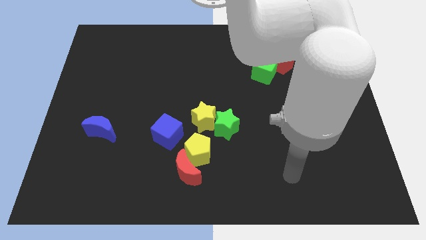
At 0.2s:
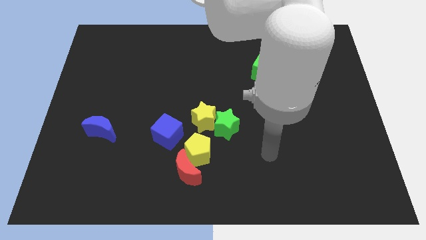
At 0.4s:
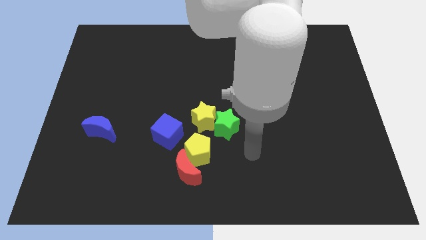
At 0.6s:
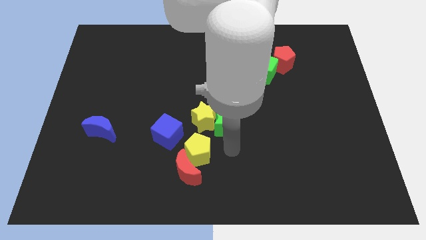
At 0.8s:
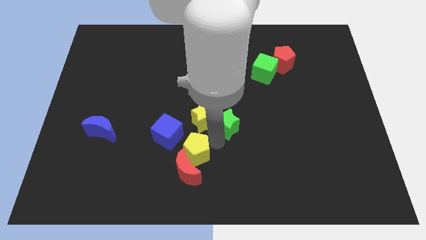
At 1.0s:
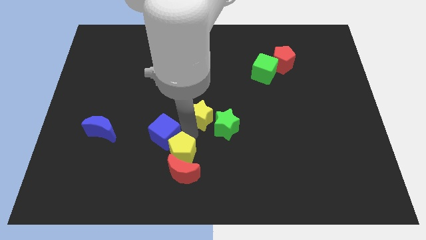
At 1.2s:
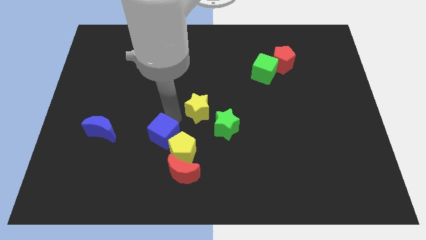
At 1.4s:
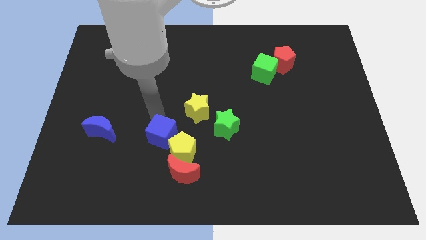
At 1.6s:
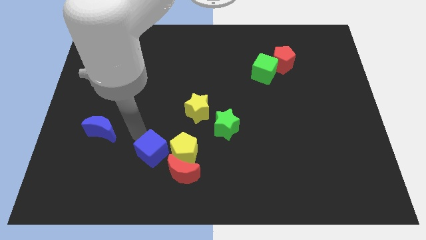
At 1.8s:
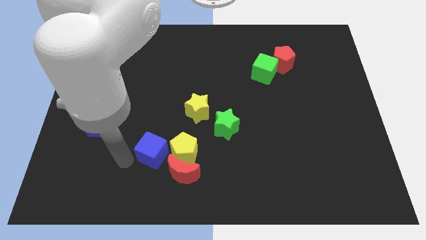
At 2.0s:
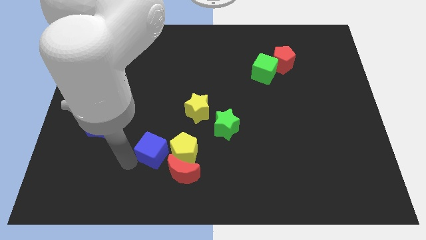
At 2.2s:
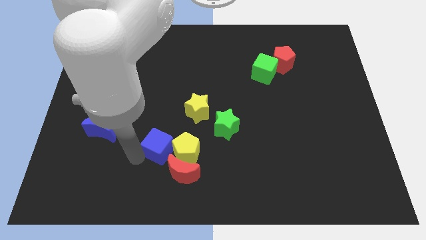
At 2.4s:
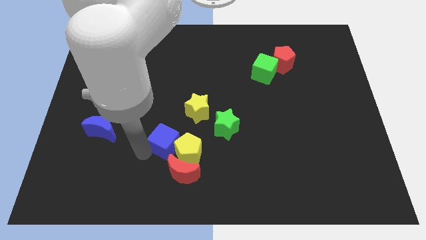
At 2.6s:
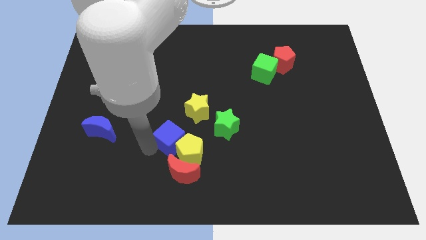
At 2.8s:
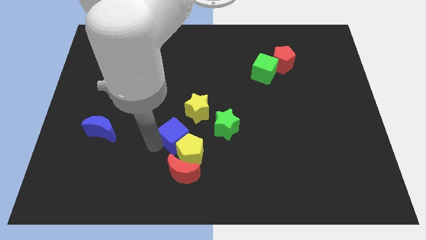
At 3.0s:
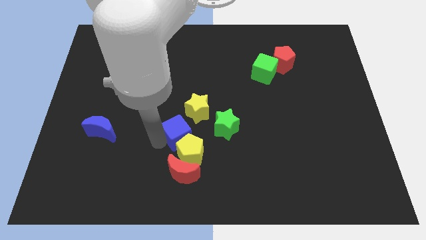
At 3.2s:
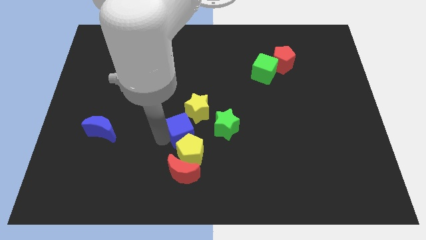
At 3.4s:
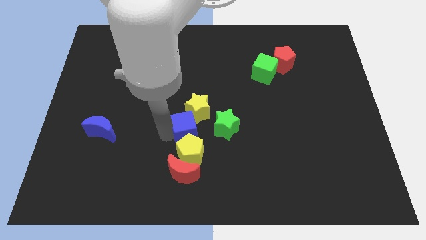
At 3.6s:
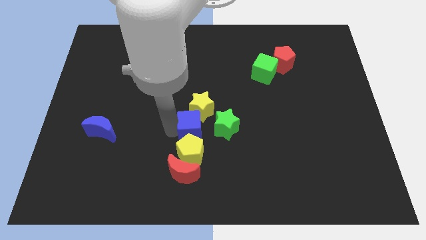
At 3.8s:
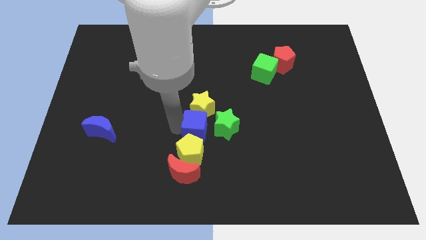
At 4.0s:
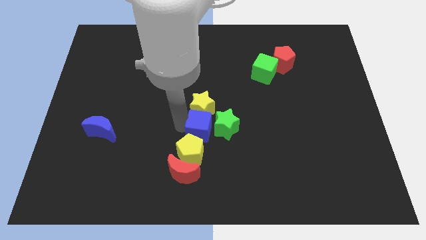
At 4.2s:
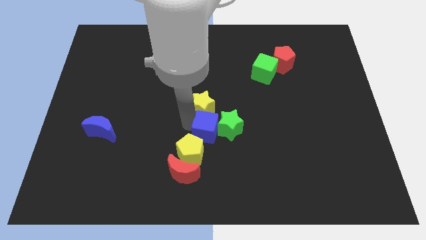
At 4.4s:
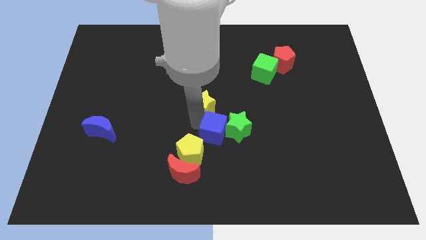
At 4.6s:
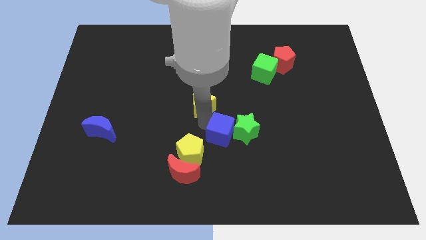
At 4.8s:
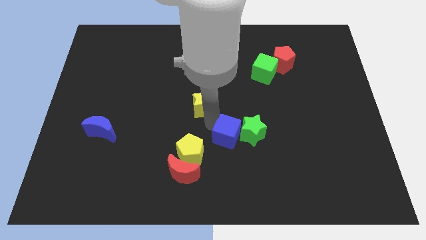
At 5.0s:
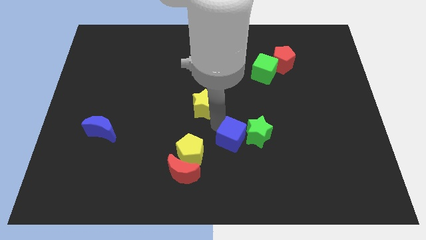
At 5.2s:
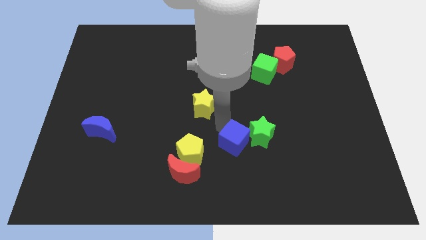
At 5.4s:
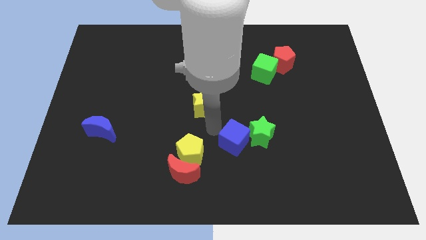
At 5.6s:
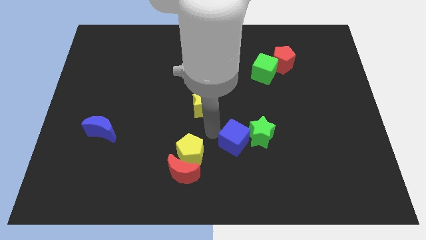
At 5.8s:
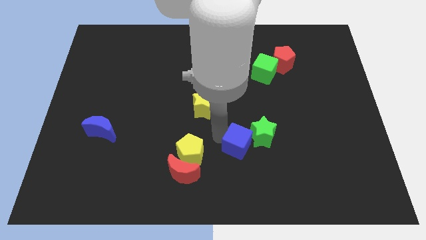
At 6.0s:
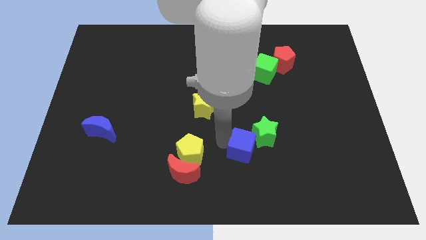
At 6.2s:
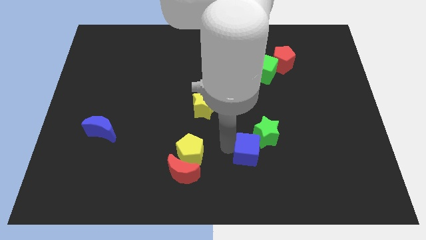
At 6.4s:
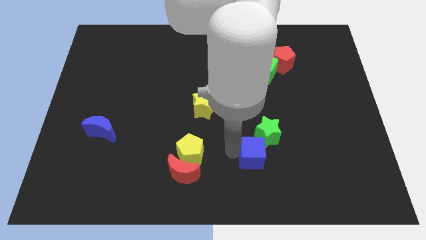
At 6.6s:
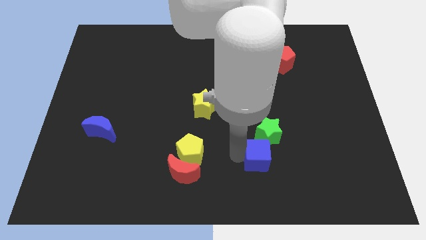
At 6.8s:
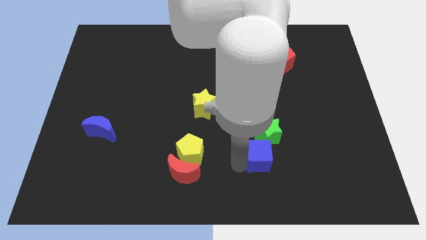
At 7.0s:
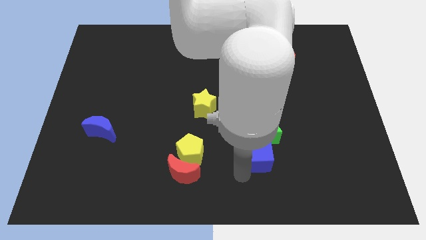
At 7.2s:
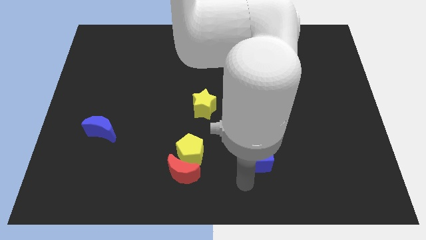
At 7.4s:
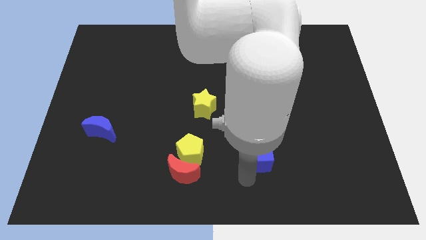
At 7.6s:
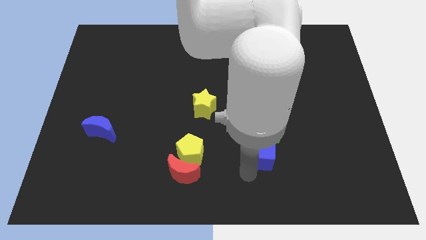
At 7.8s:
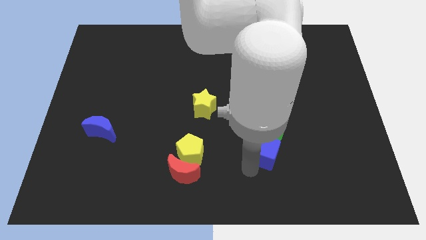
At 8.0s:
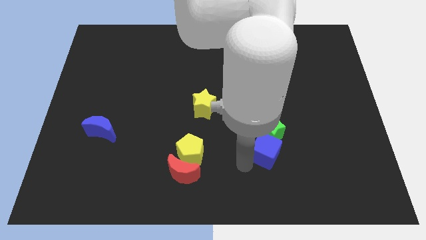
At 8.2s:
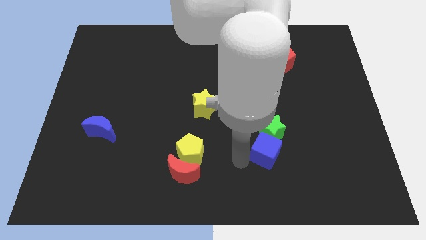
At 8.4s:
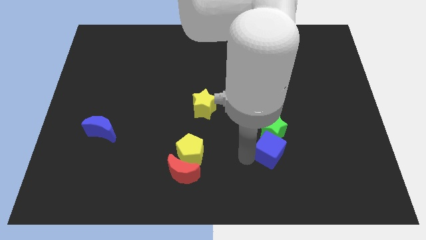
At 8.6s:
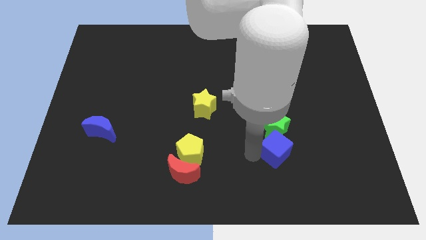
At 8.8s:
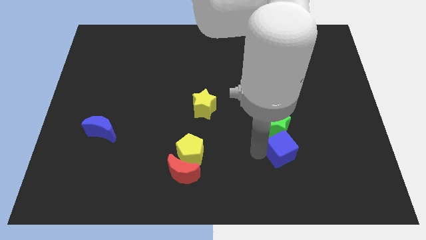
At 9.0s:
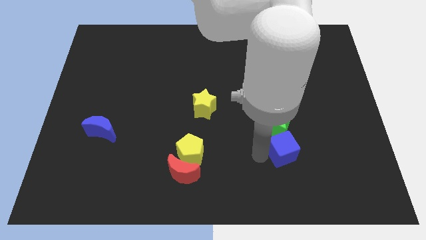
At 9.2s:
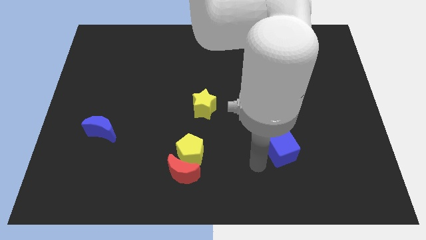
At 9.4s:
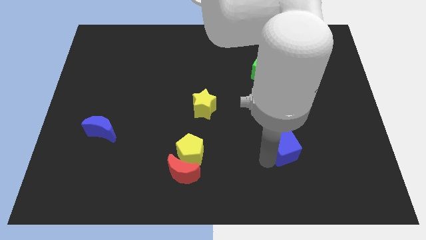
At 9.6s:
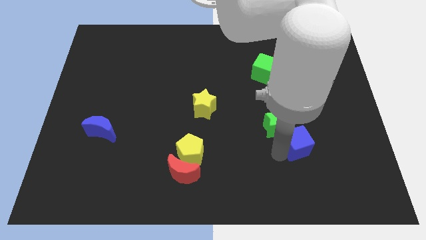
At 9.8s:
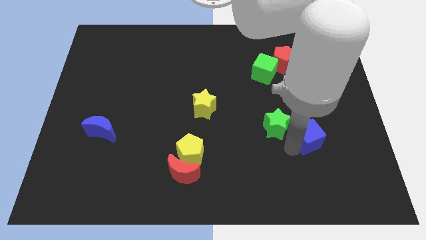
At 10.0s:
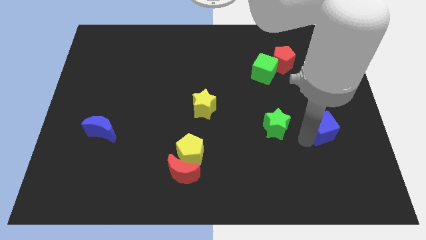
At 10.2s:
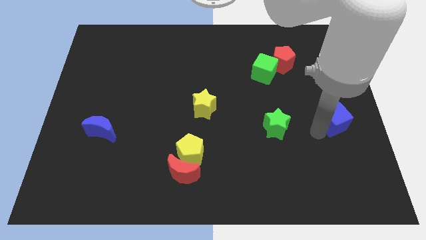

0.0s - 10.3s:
slide the blue cube to the center right

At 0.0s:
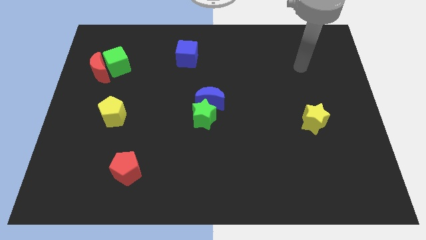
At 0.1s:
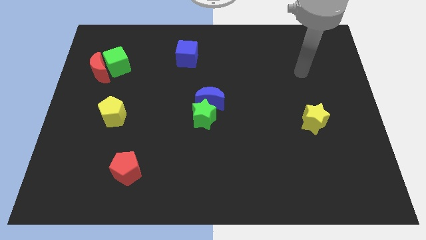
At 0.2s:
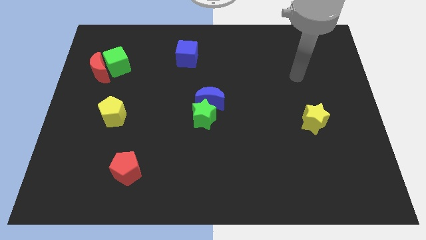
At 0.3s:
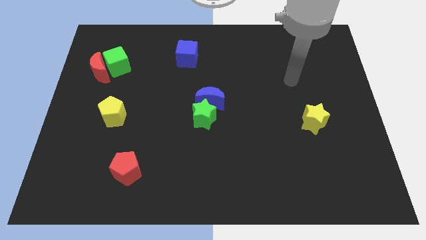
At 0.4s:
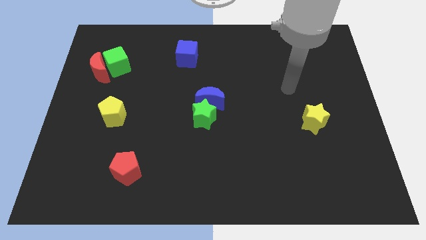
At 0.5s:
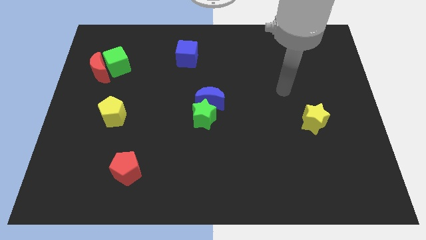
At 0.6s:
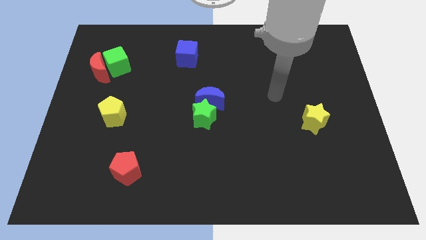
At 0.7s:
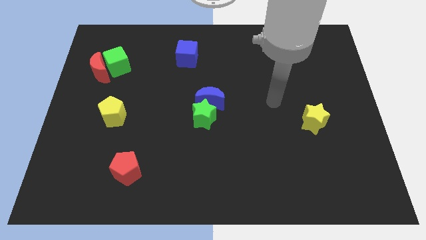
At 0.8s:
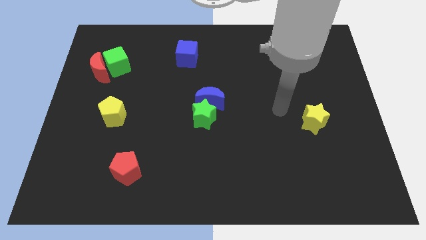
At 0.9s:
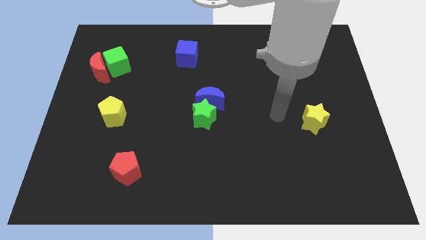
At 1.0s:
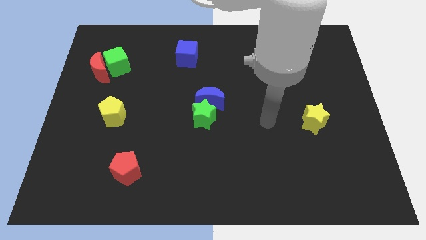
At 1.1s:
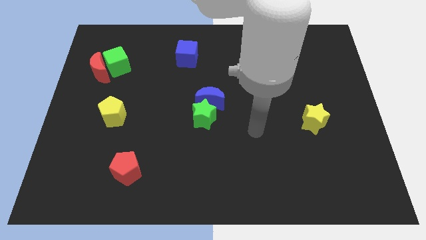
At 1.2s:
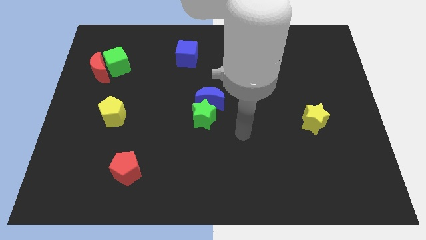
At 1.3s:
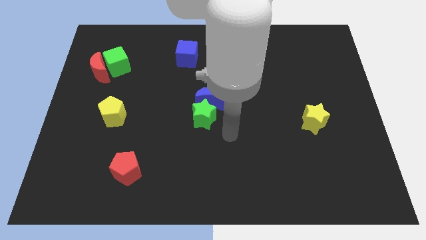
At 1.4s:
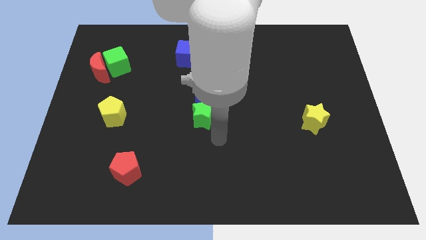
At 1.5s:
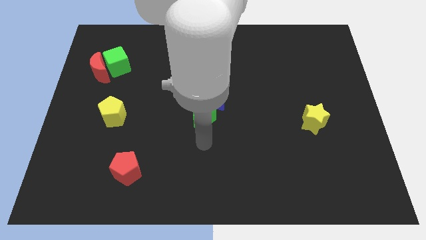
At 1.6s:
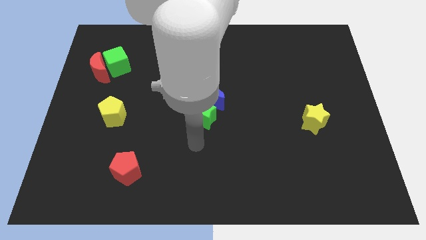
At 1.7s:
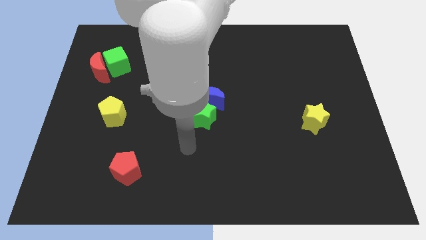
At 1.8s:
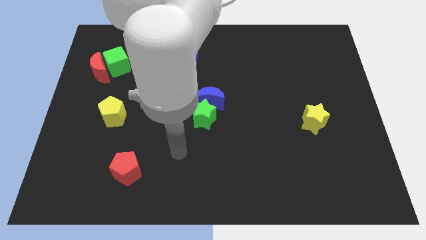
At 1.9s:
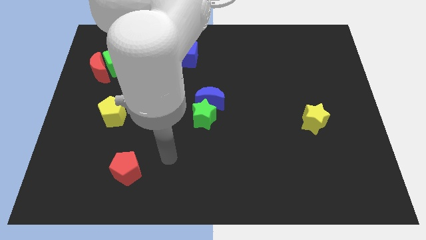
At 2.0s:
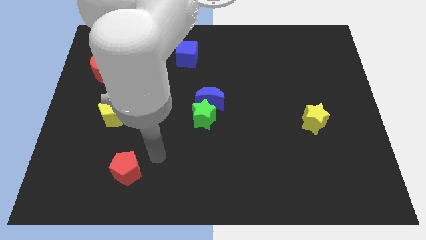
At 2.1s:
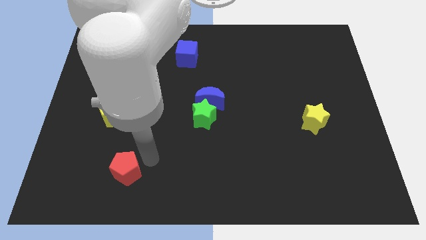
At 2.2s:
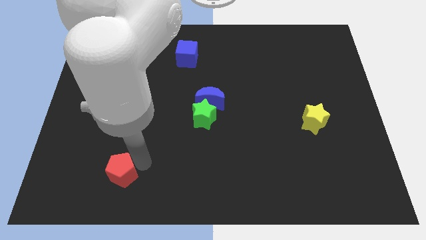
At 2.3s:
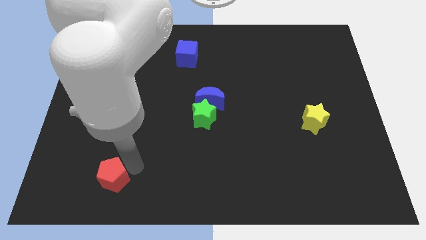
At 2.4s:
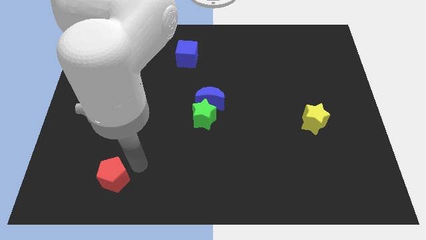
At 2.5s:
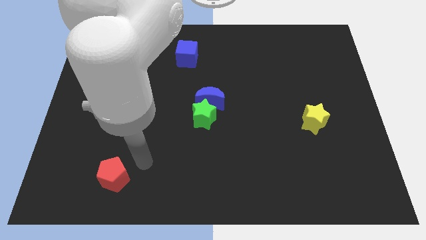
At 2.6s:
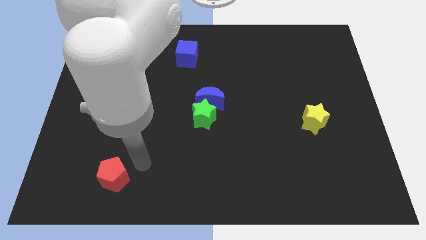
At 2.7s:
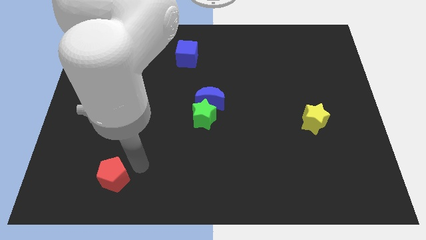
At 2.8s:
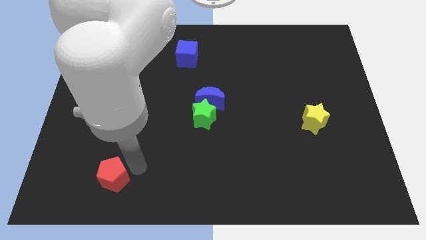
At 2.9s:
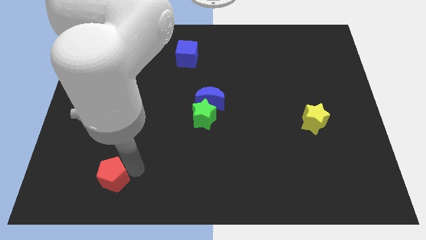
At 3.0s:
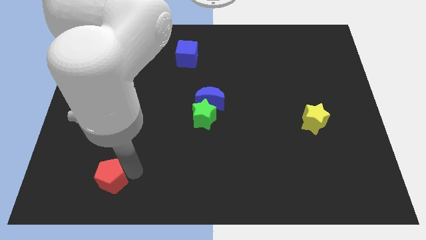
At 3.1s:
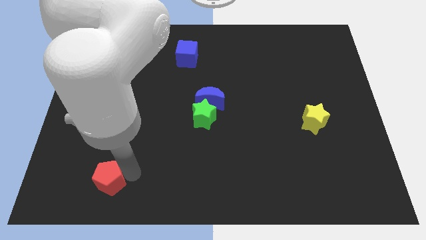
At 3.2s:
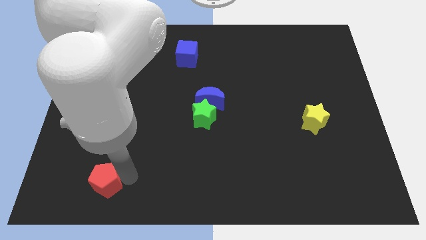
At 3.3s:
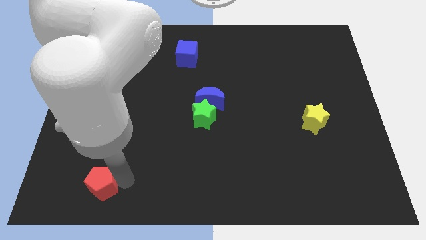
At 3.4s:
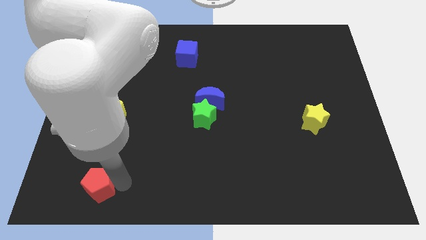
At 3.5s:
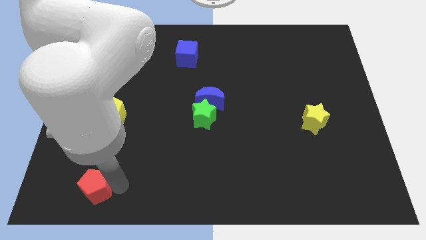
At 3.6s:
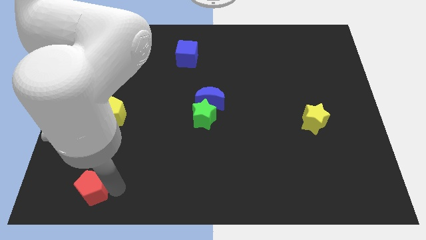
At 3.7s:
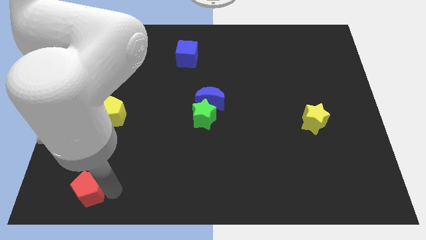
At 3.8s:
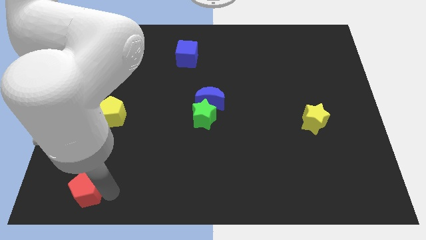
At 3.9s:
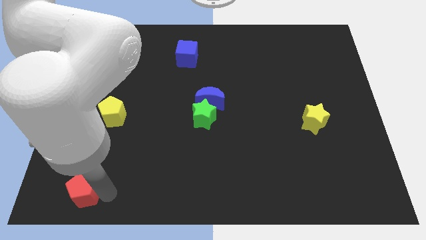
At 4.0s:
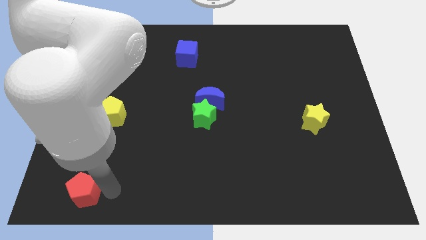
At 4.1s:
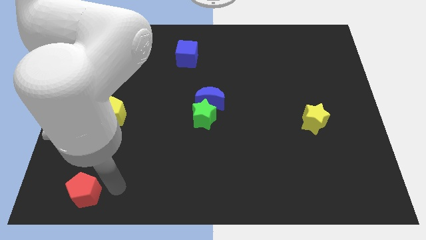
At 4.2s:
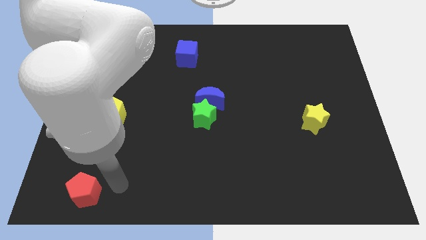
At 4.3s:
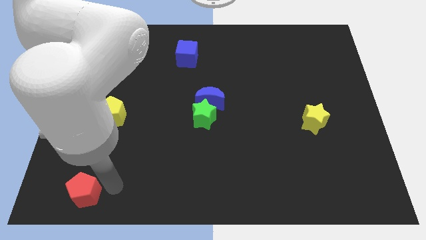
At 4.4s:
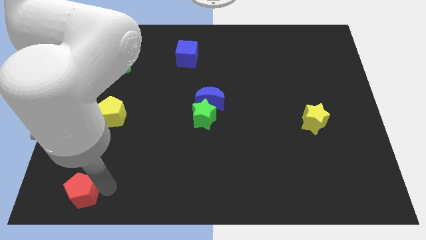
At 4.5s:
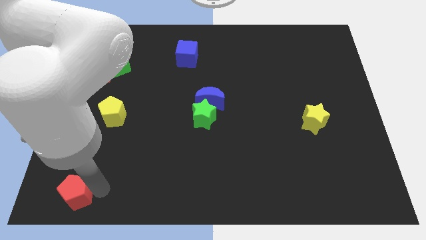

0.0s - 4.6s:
slide the red pentagon to the bottom left
